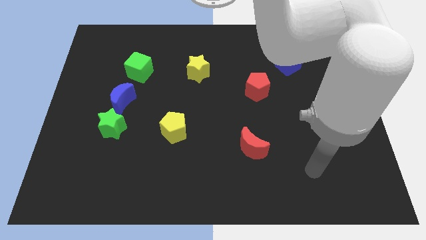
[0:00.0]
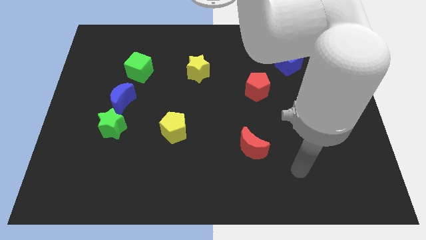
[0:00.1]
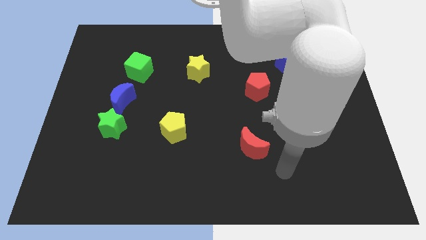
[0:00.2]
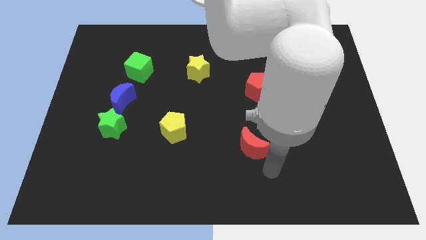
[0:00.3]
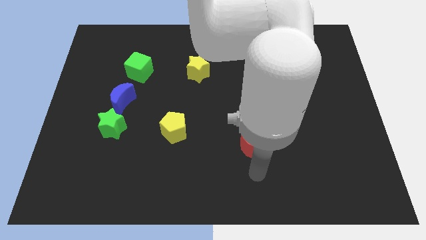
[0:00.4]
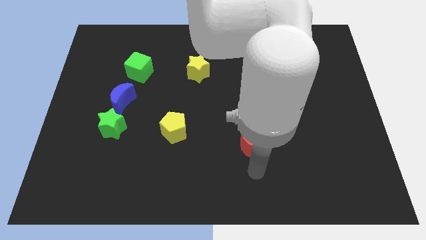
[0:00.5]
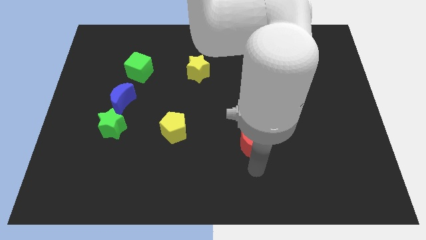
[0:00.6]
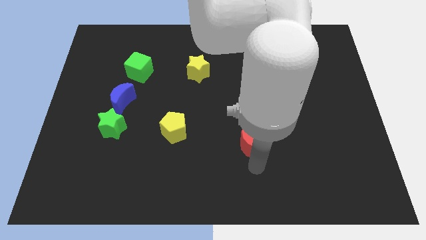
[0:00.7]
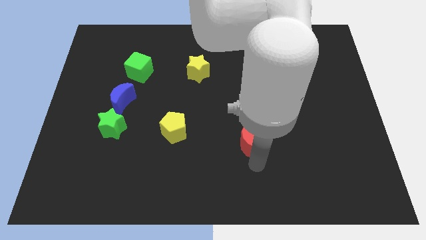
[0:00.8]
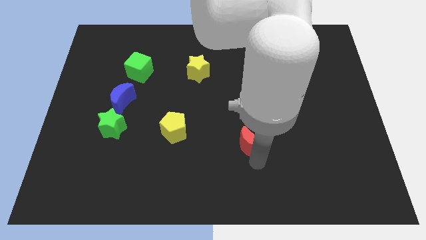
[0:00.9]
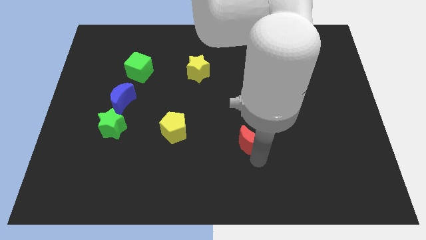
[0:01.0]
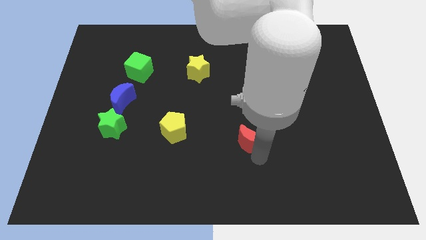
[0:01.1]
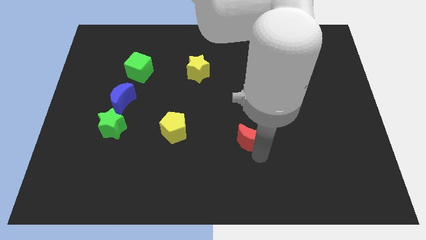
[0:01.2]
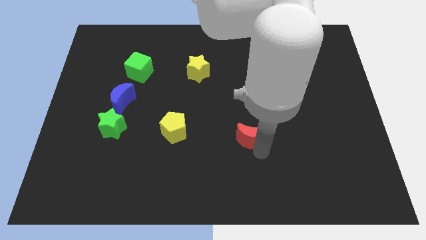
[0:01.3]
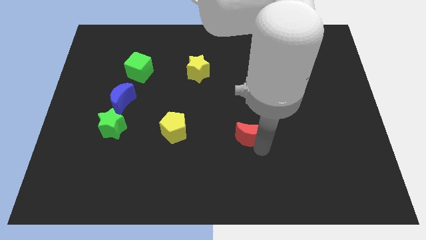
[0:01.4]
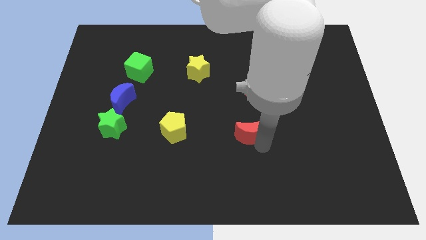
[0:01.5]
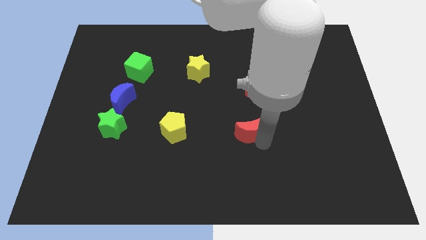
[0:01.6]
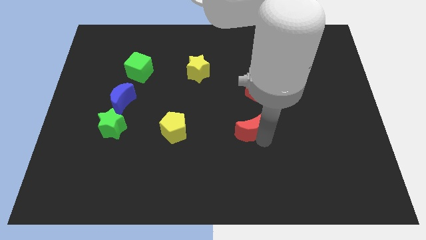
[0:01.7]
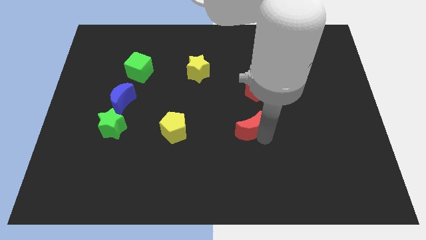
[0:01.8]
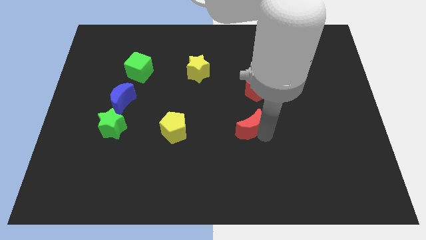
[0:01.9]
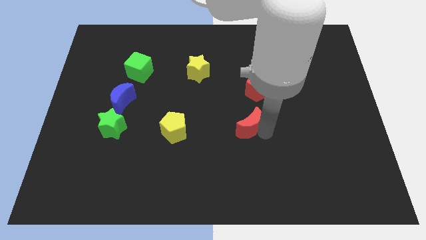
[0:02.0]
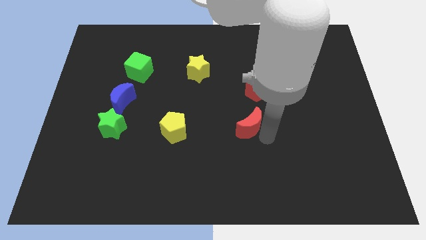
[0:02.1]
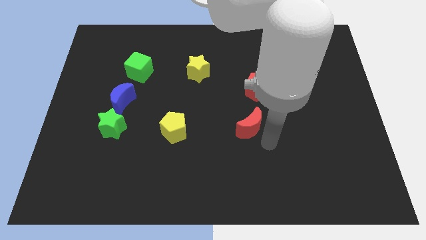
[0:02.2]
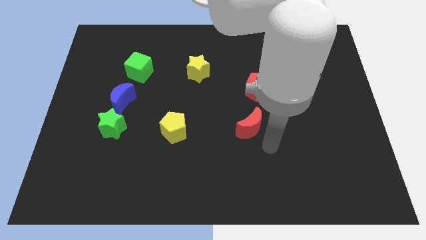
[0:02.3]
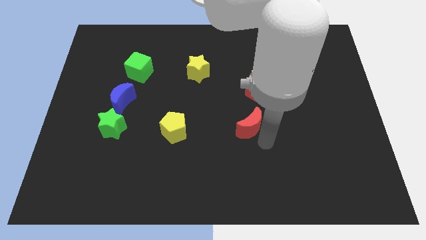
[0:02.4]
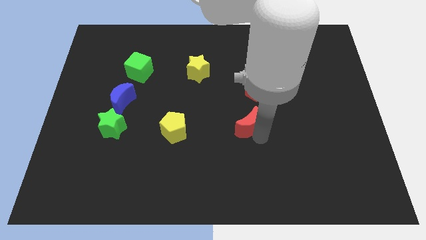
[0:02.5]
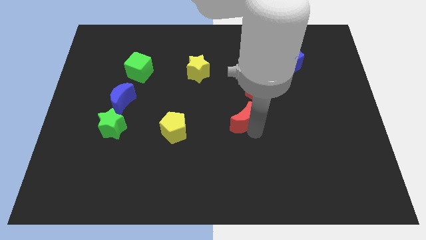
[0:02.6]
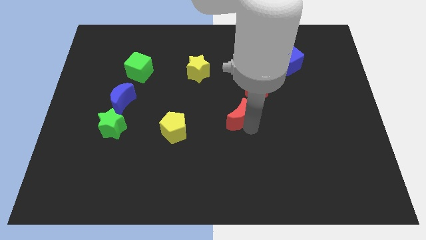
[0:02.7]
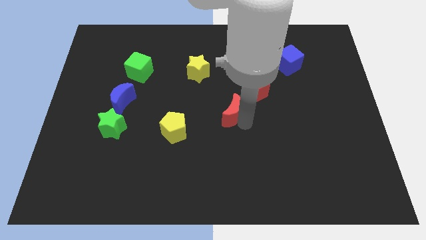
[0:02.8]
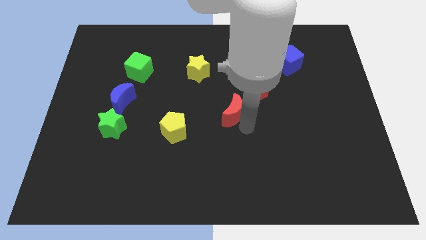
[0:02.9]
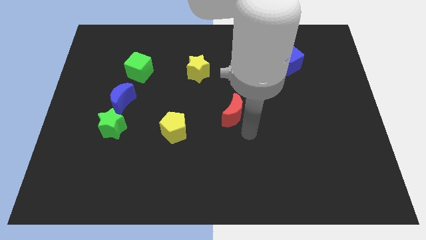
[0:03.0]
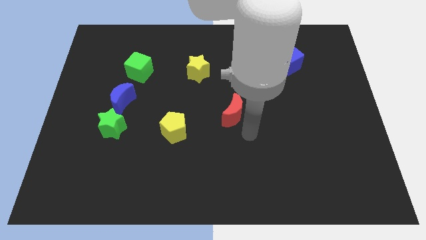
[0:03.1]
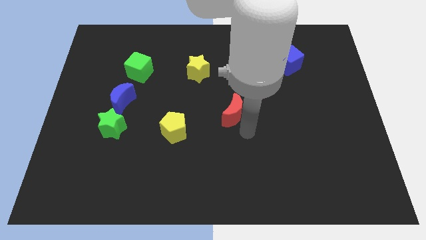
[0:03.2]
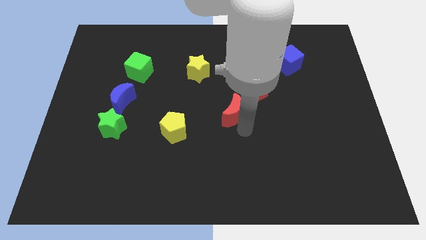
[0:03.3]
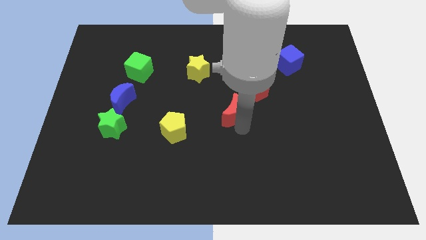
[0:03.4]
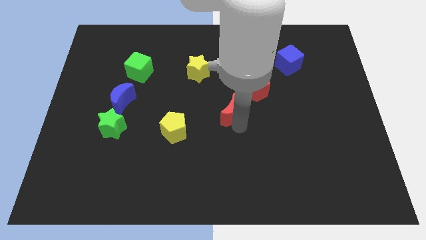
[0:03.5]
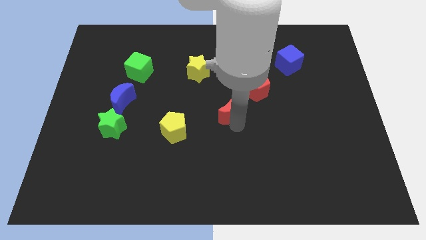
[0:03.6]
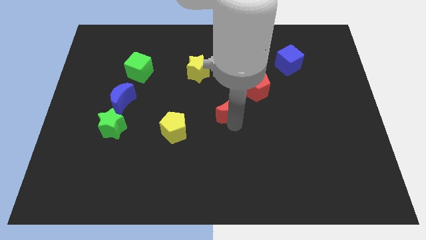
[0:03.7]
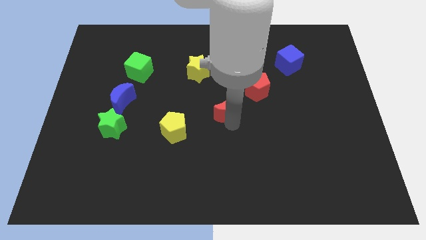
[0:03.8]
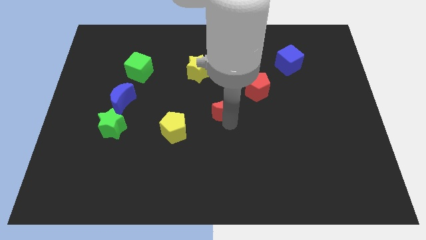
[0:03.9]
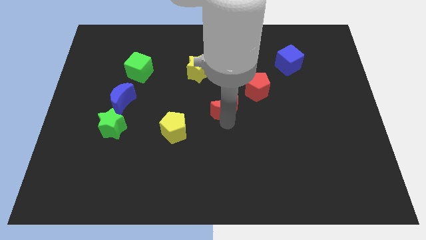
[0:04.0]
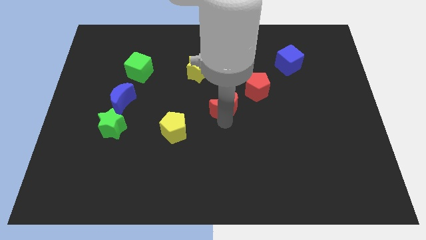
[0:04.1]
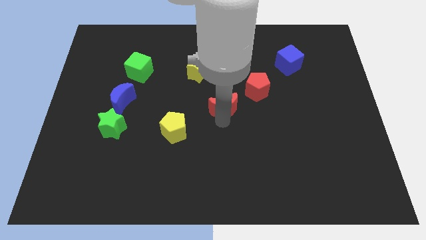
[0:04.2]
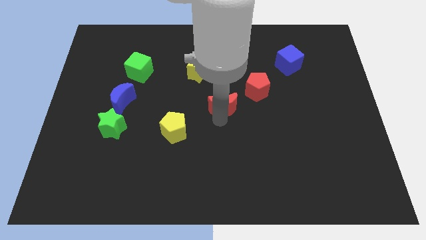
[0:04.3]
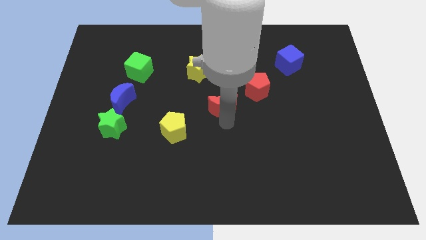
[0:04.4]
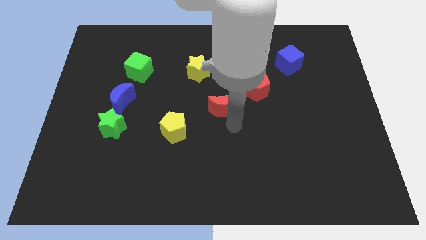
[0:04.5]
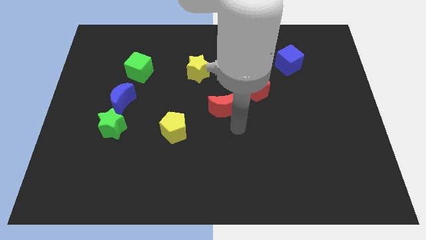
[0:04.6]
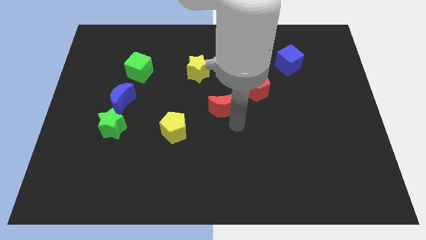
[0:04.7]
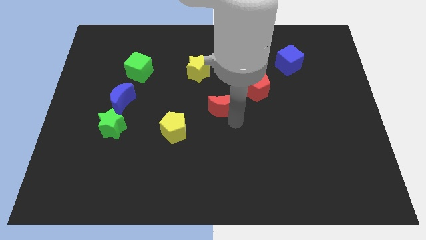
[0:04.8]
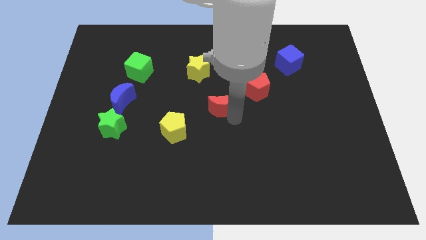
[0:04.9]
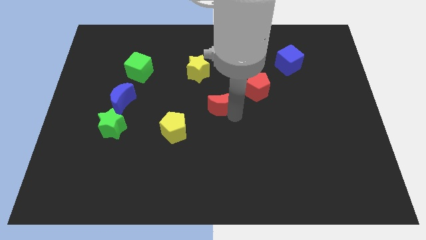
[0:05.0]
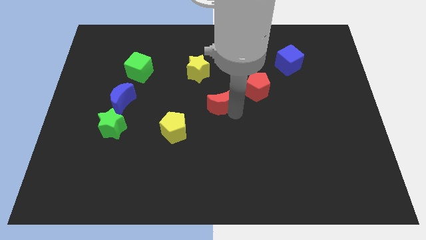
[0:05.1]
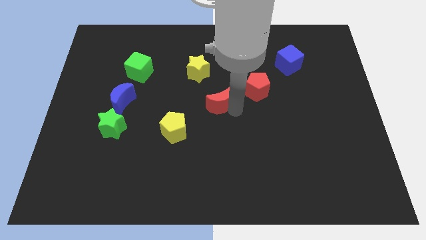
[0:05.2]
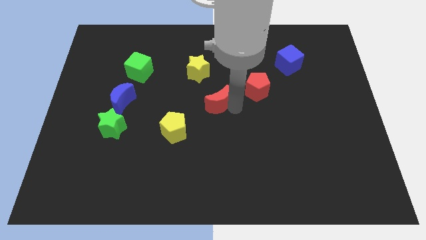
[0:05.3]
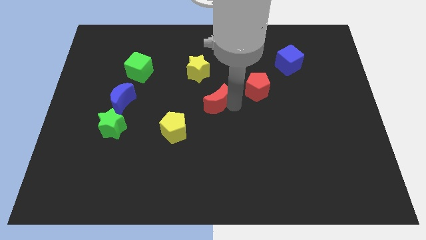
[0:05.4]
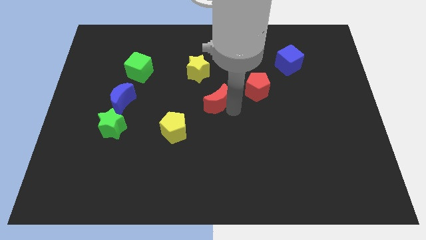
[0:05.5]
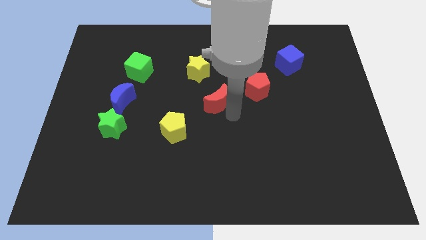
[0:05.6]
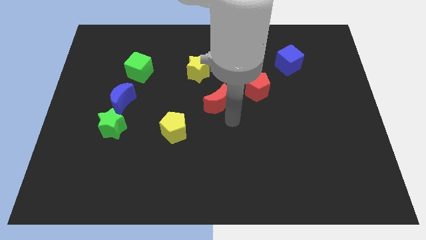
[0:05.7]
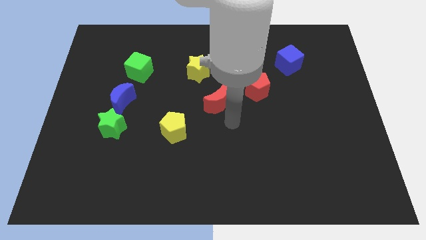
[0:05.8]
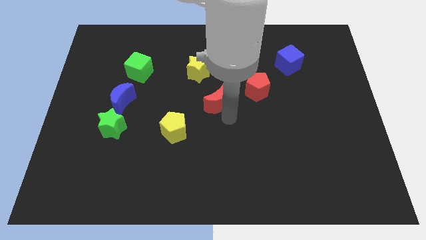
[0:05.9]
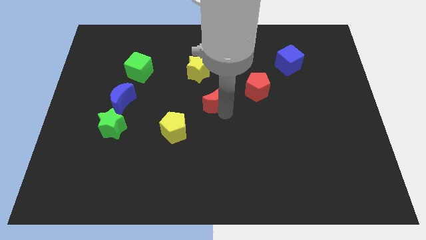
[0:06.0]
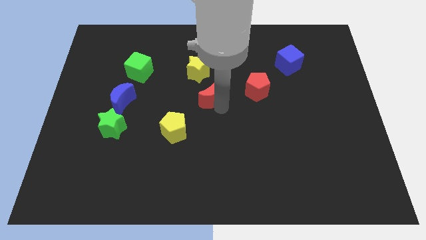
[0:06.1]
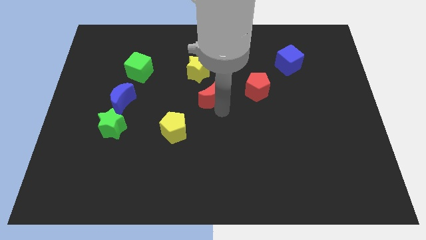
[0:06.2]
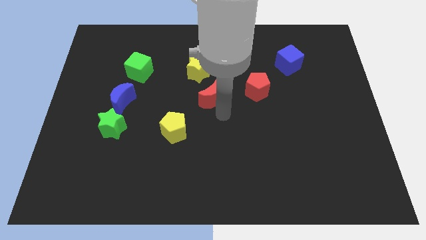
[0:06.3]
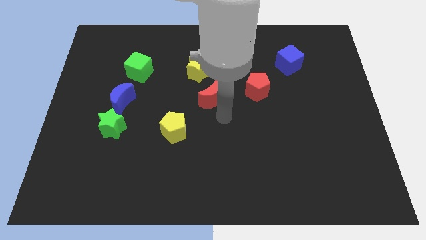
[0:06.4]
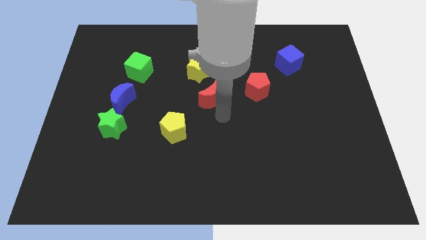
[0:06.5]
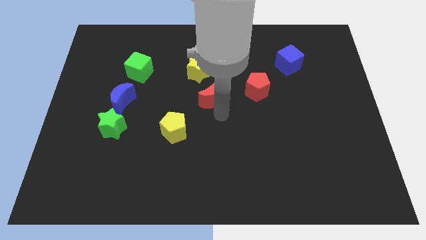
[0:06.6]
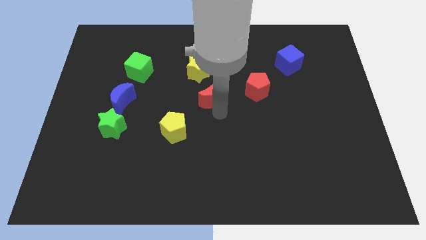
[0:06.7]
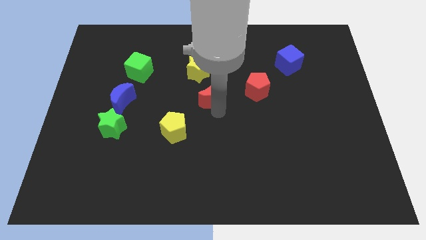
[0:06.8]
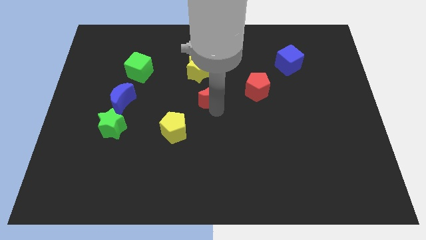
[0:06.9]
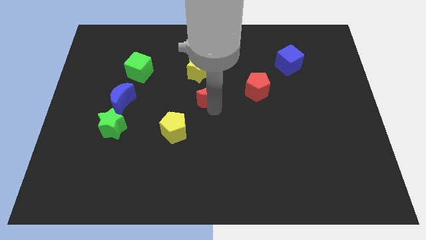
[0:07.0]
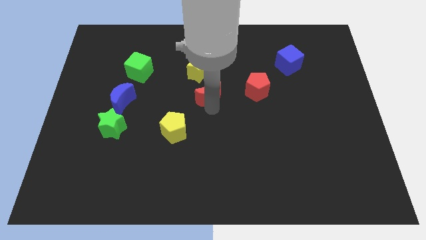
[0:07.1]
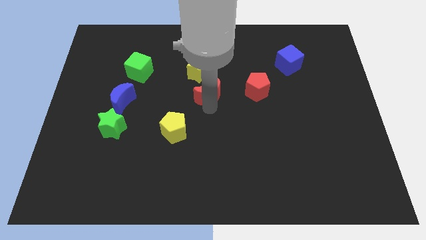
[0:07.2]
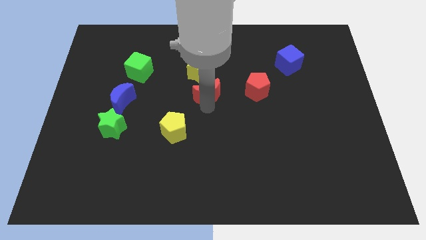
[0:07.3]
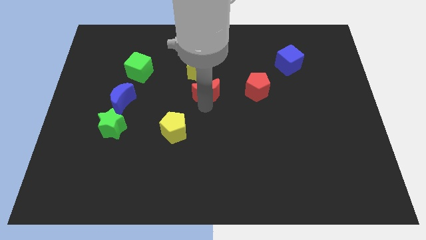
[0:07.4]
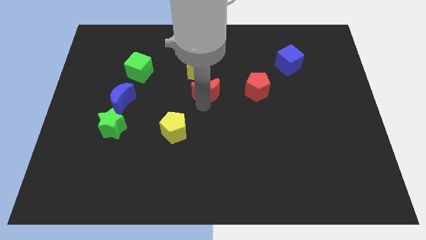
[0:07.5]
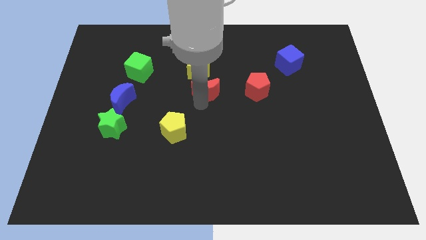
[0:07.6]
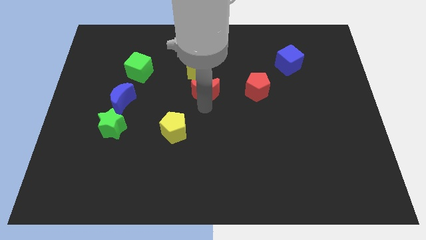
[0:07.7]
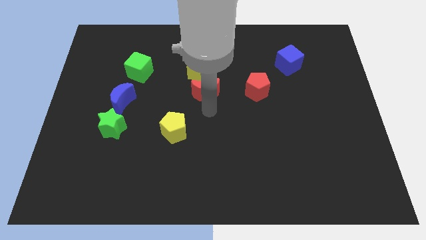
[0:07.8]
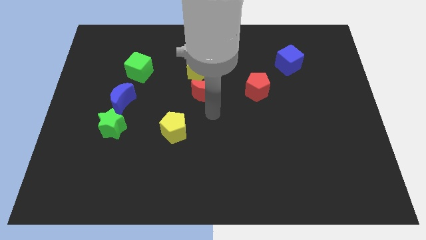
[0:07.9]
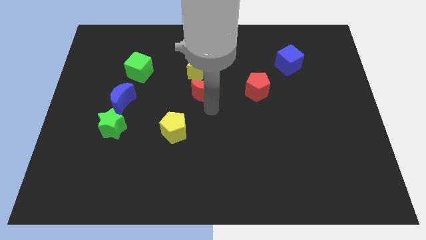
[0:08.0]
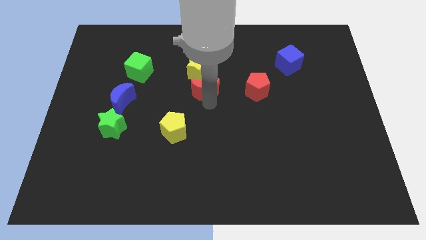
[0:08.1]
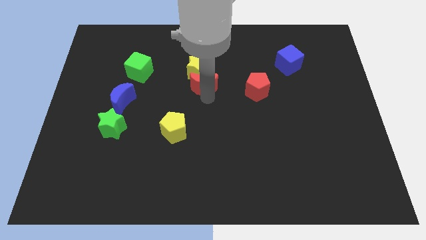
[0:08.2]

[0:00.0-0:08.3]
slide the red moon to the yellow star
